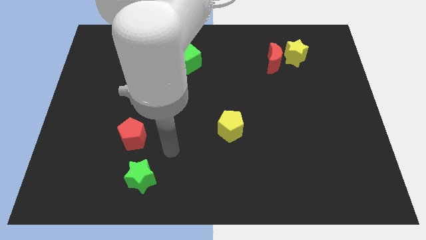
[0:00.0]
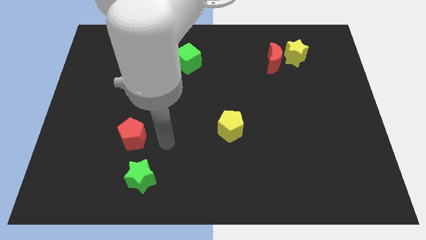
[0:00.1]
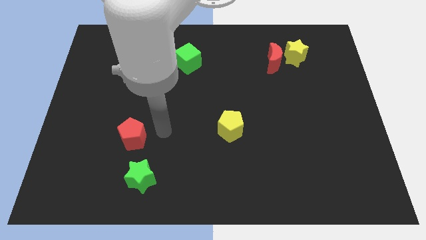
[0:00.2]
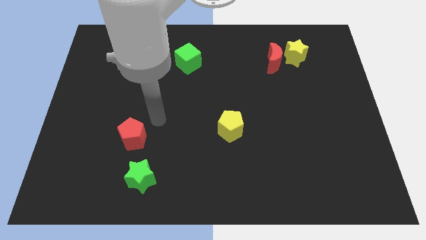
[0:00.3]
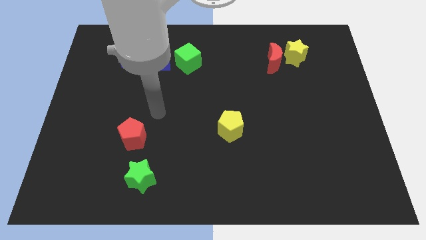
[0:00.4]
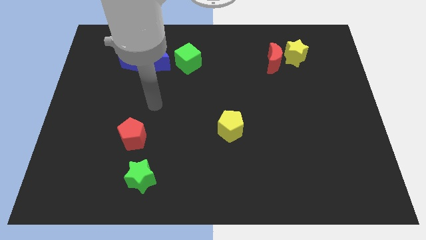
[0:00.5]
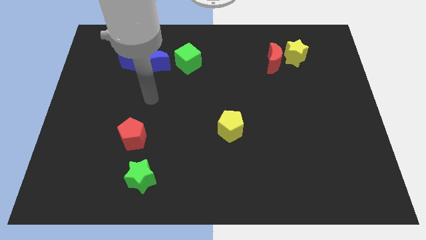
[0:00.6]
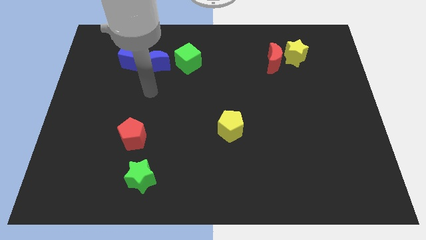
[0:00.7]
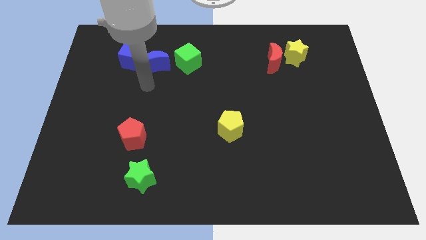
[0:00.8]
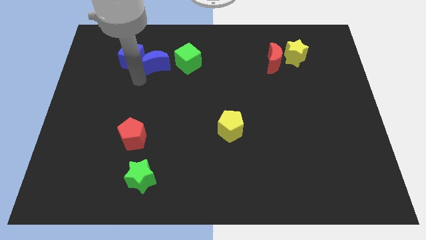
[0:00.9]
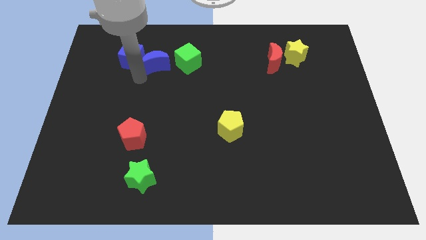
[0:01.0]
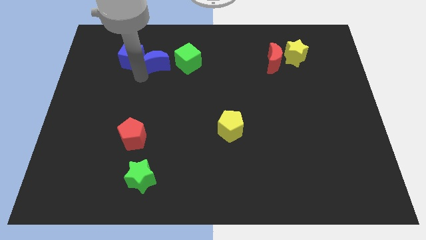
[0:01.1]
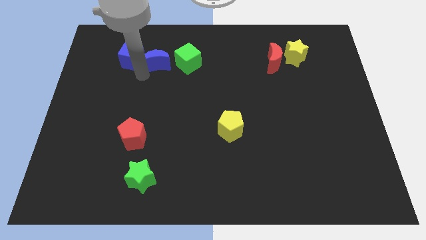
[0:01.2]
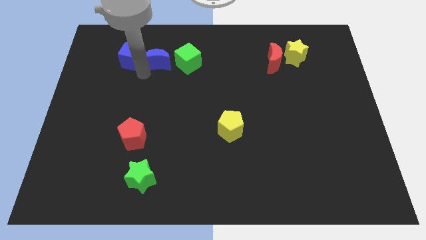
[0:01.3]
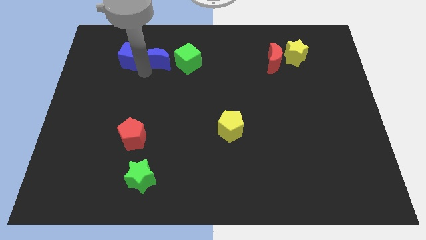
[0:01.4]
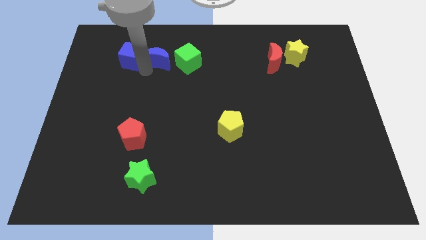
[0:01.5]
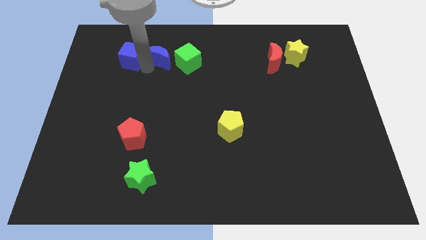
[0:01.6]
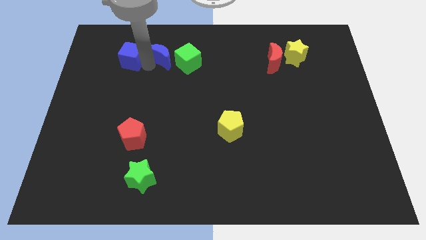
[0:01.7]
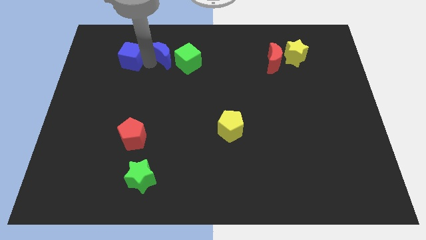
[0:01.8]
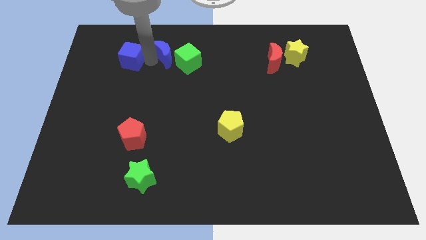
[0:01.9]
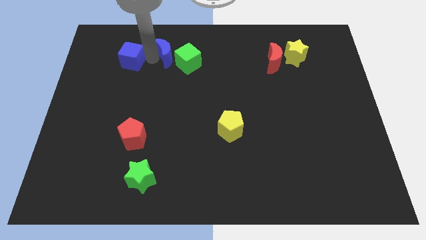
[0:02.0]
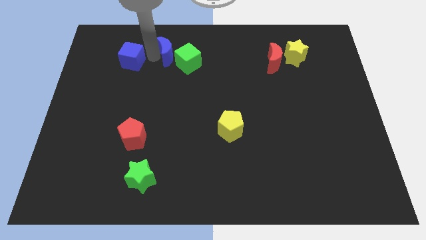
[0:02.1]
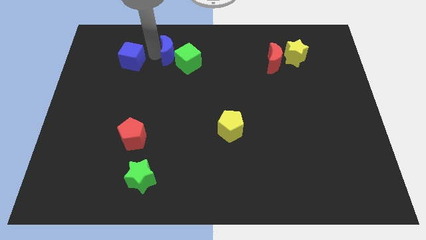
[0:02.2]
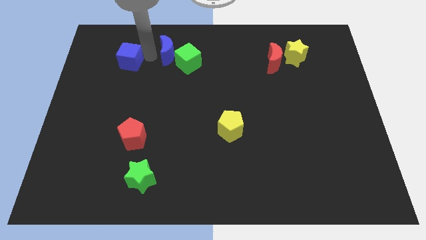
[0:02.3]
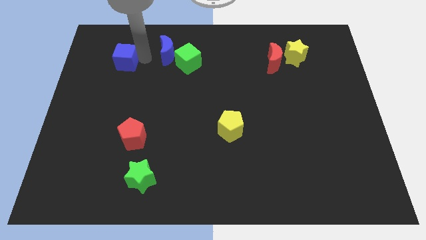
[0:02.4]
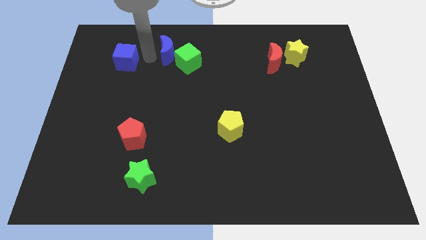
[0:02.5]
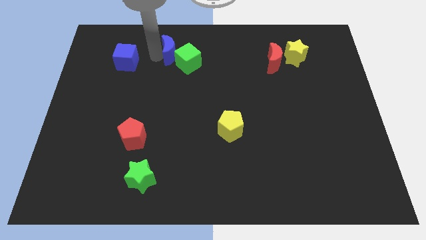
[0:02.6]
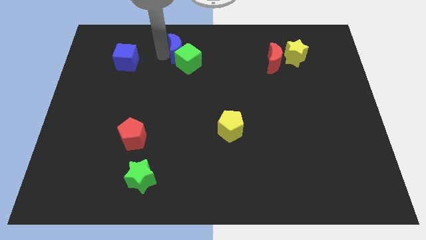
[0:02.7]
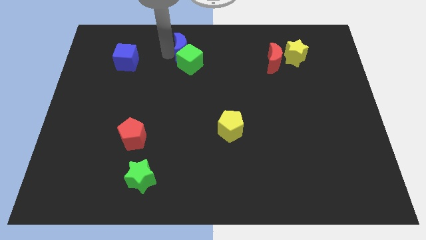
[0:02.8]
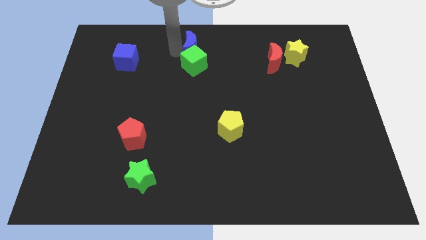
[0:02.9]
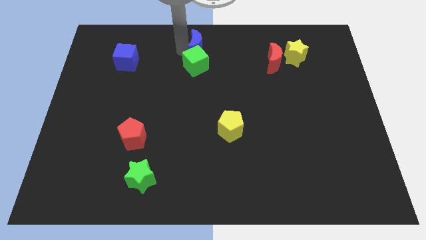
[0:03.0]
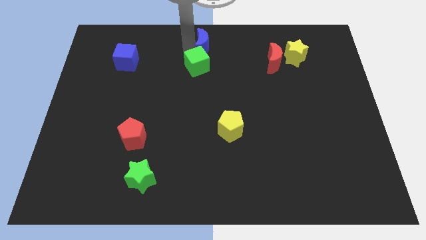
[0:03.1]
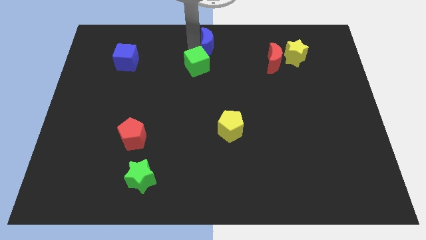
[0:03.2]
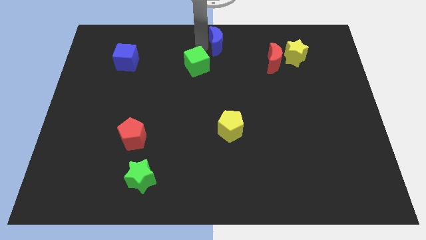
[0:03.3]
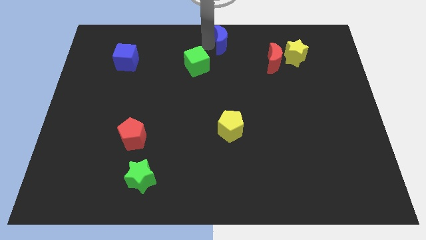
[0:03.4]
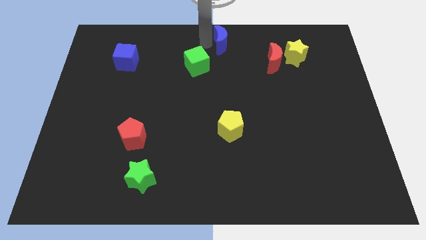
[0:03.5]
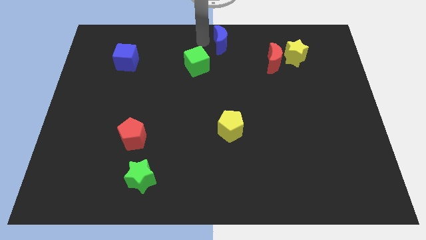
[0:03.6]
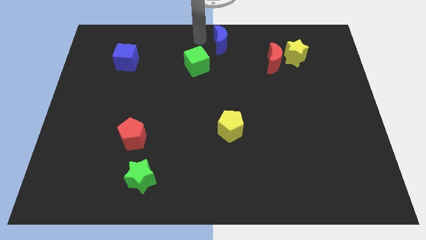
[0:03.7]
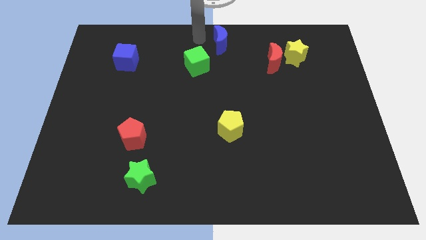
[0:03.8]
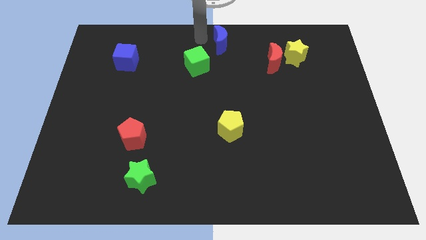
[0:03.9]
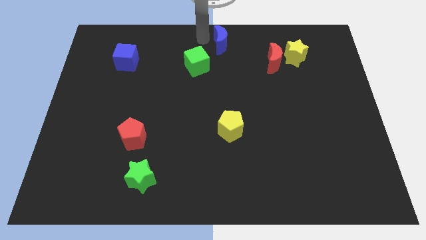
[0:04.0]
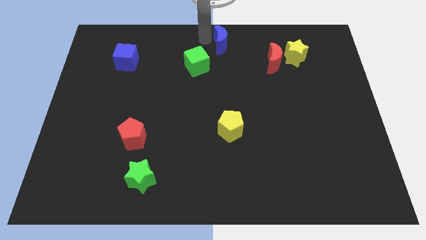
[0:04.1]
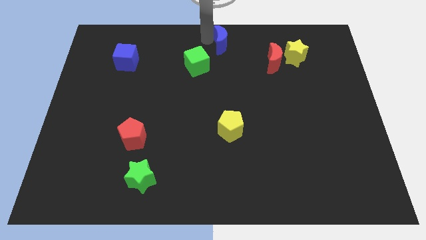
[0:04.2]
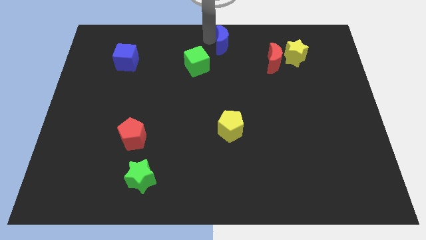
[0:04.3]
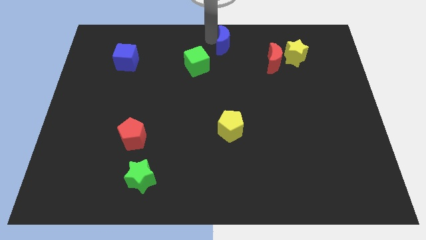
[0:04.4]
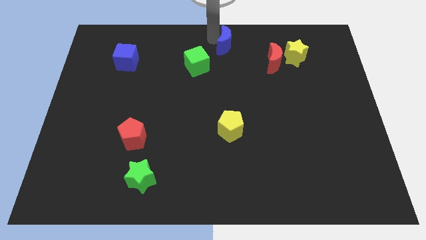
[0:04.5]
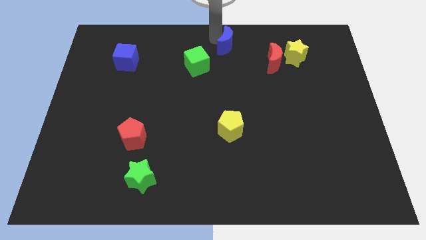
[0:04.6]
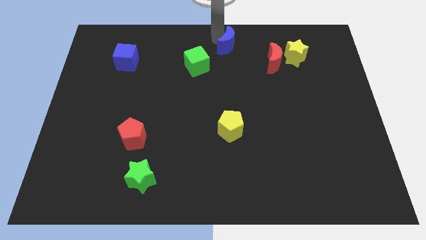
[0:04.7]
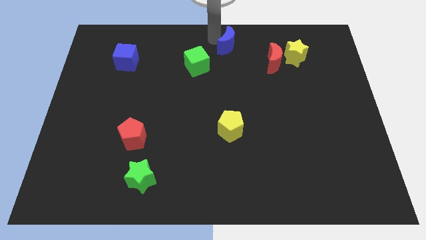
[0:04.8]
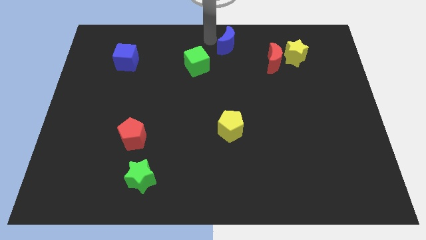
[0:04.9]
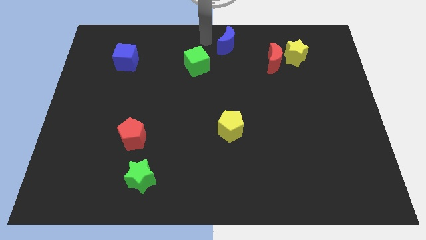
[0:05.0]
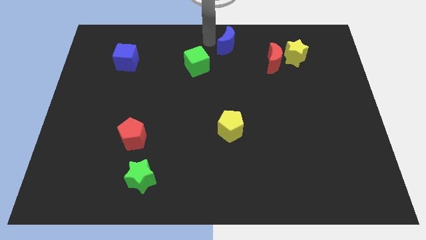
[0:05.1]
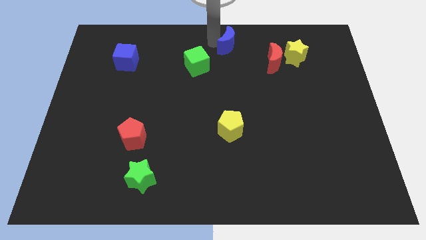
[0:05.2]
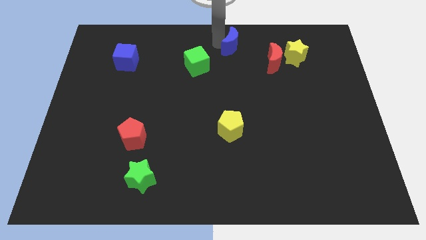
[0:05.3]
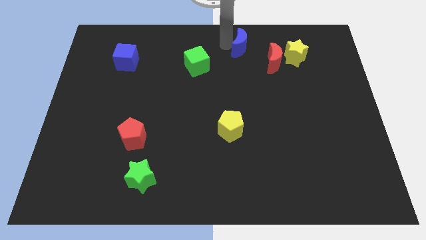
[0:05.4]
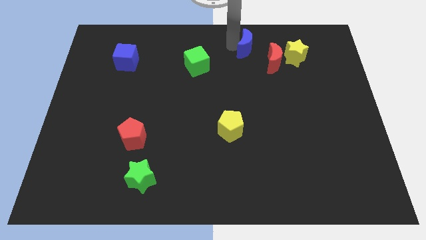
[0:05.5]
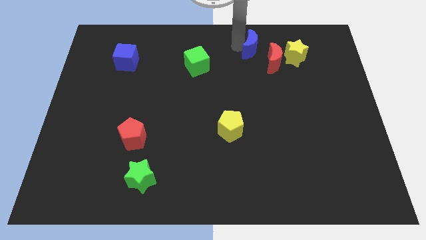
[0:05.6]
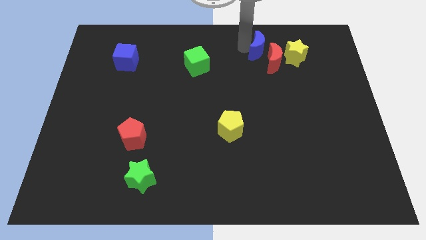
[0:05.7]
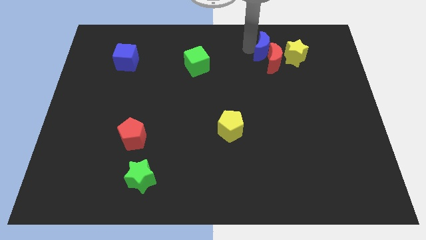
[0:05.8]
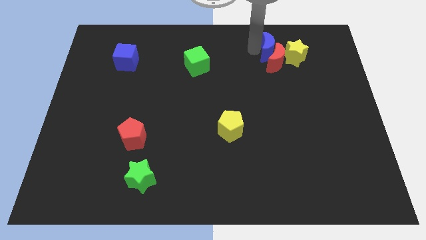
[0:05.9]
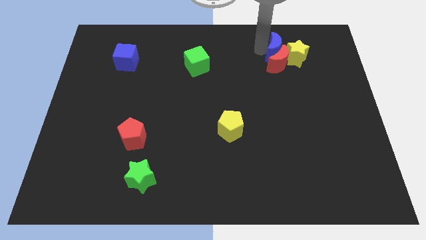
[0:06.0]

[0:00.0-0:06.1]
move the blue moon next to the yellow star
